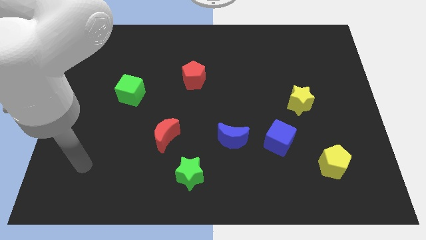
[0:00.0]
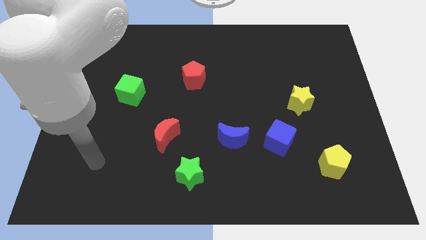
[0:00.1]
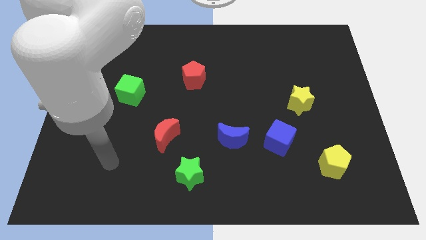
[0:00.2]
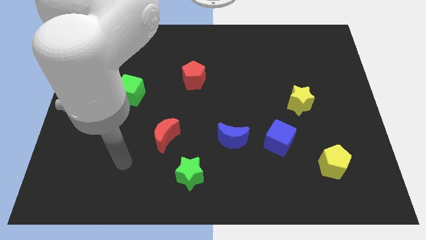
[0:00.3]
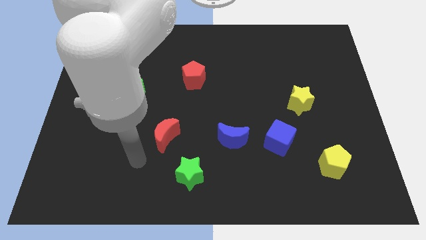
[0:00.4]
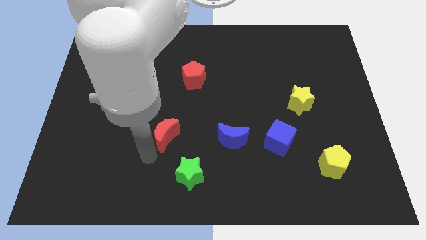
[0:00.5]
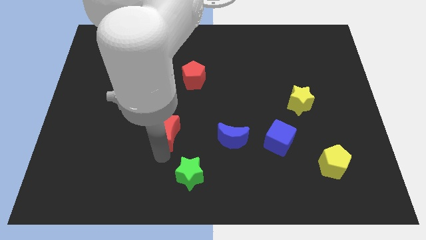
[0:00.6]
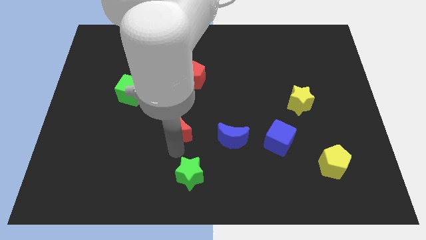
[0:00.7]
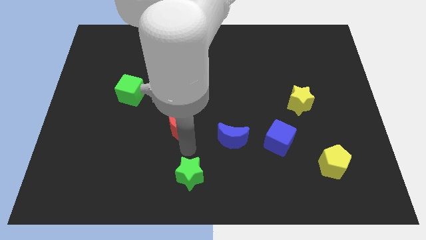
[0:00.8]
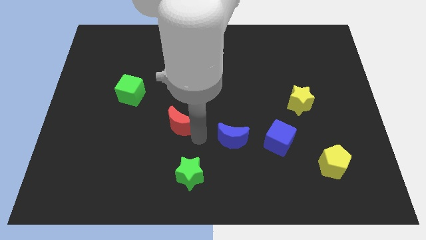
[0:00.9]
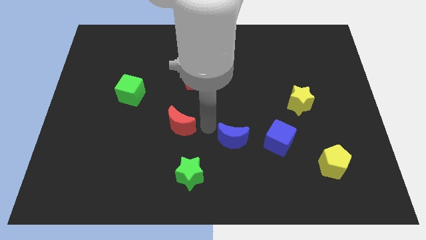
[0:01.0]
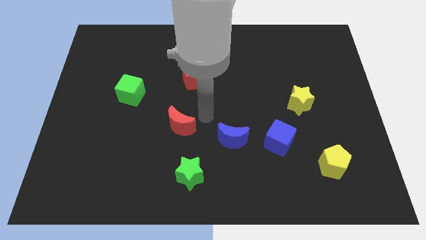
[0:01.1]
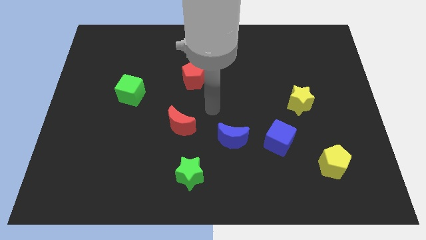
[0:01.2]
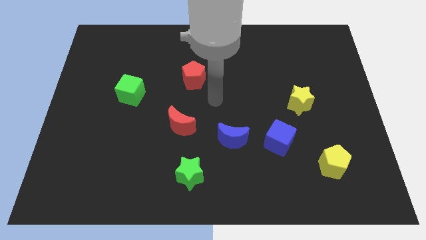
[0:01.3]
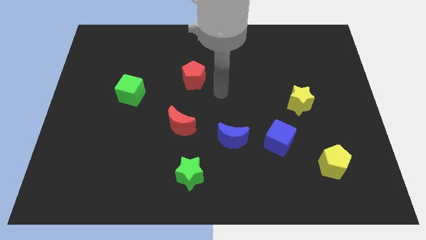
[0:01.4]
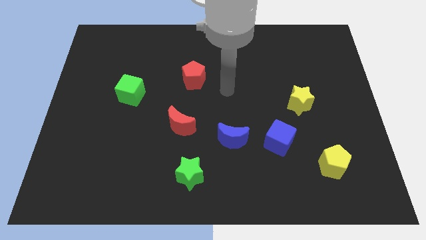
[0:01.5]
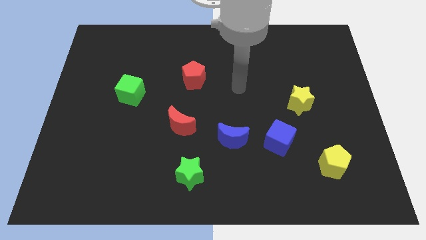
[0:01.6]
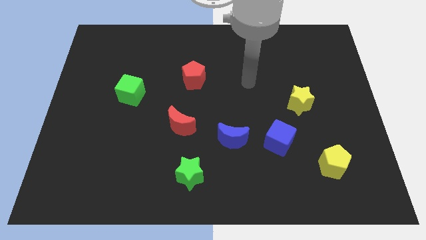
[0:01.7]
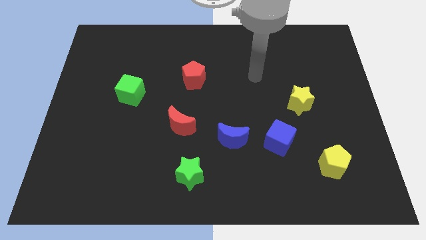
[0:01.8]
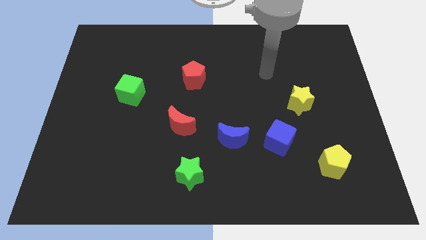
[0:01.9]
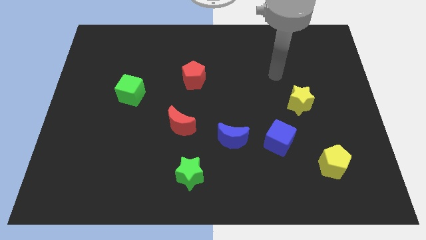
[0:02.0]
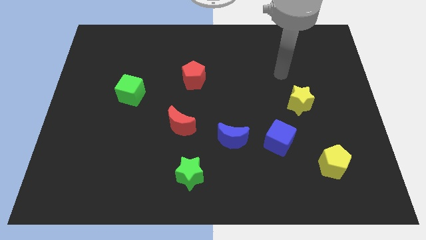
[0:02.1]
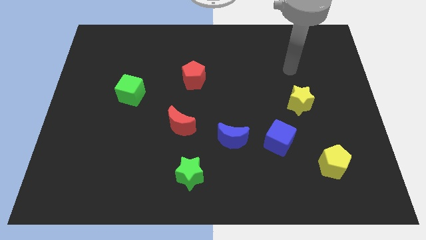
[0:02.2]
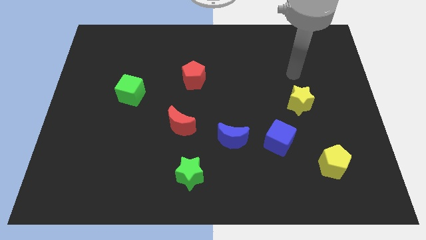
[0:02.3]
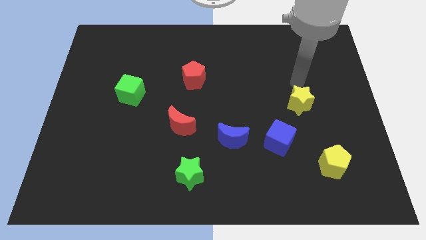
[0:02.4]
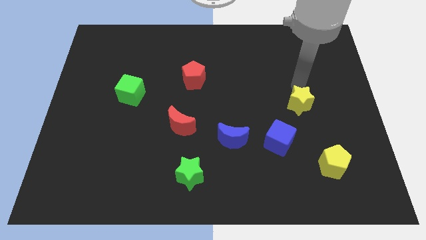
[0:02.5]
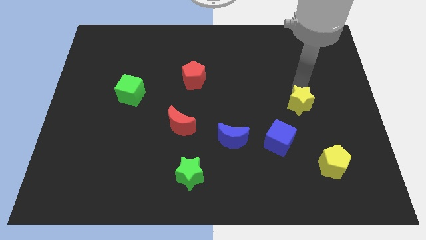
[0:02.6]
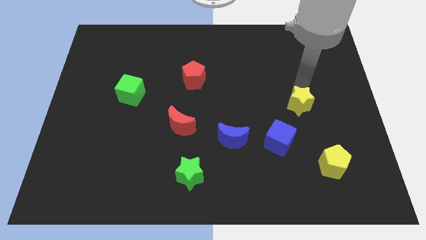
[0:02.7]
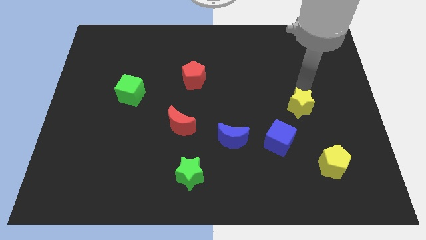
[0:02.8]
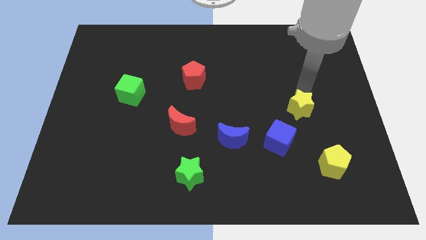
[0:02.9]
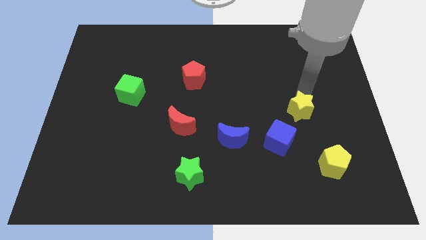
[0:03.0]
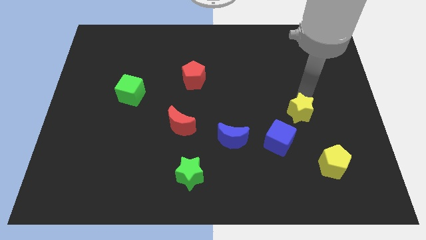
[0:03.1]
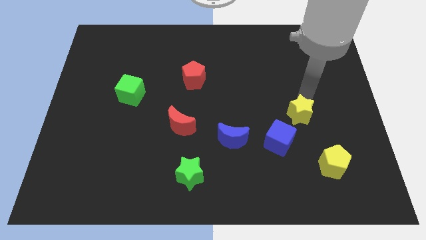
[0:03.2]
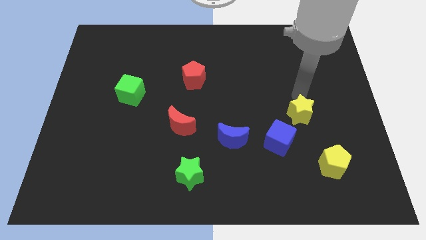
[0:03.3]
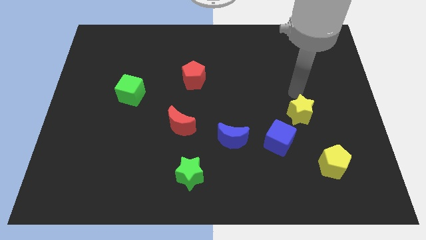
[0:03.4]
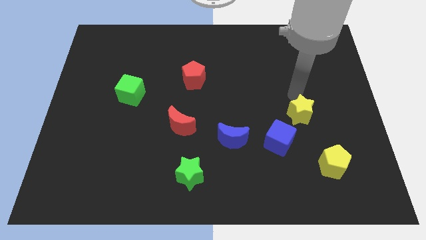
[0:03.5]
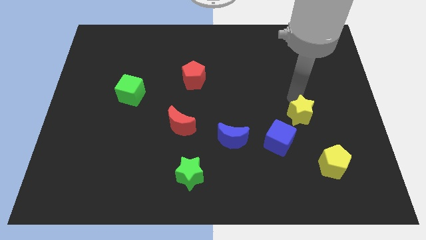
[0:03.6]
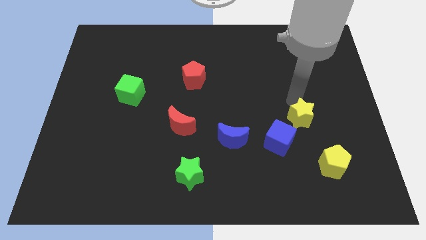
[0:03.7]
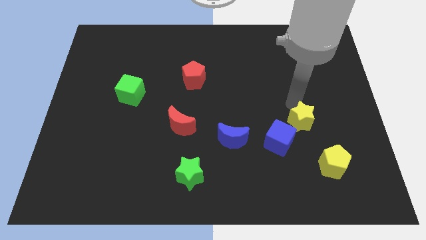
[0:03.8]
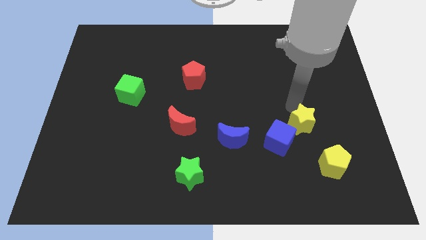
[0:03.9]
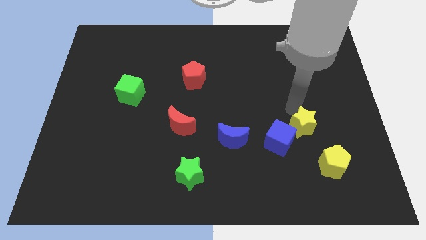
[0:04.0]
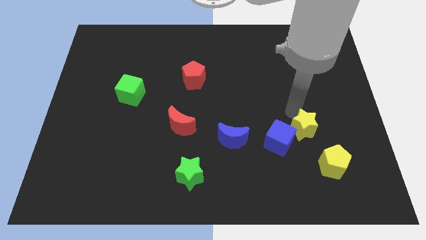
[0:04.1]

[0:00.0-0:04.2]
move the yellow star a little bit down

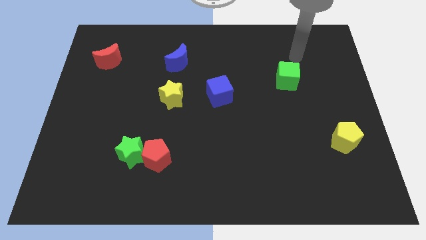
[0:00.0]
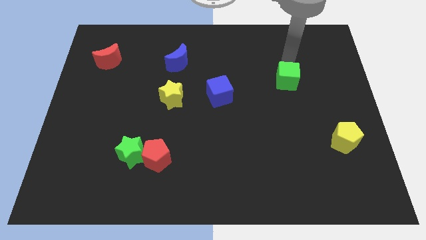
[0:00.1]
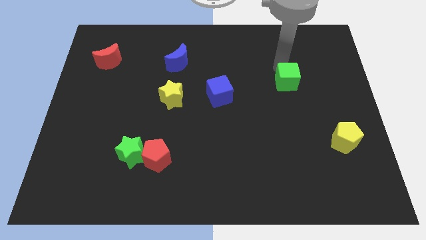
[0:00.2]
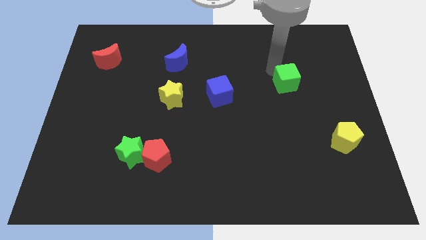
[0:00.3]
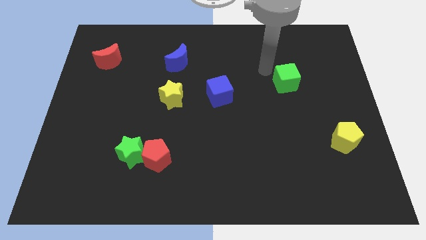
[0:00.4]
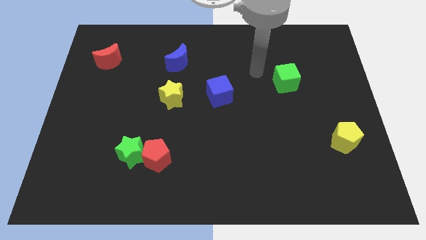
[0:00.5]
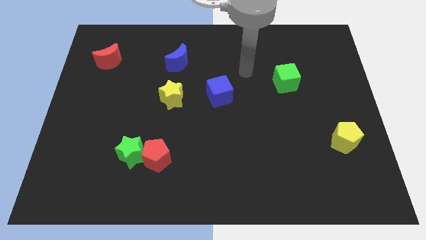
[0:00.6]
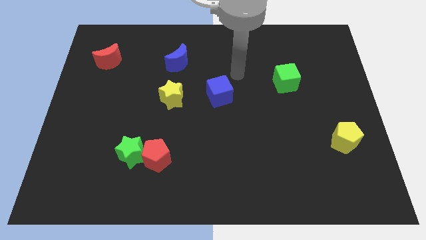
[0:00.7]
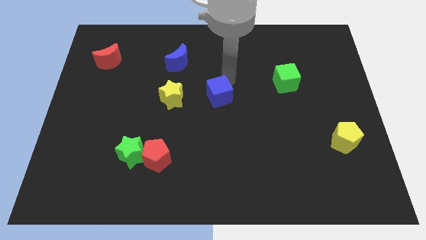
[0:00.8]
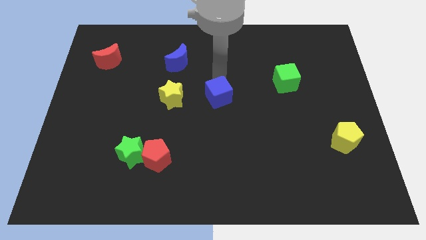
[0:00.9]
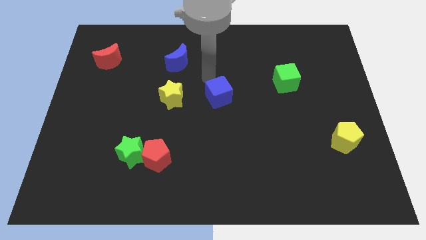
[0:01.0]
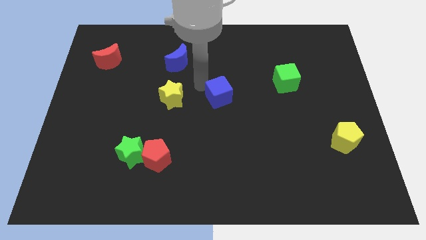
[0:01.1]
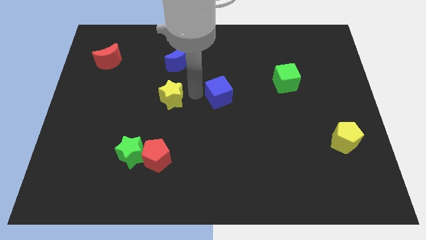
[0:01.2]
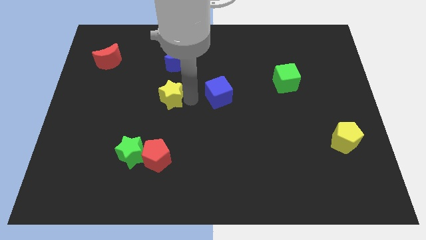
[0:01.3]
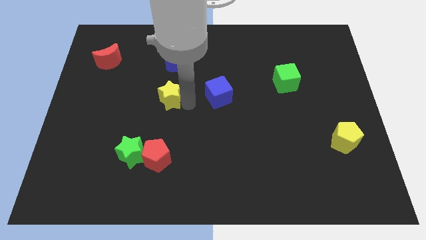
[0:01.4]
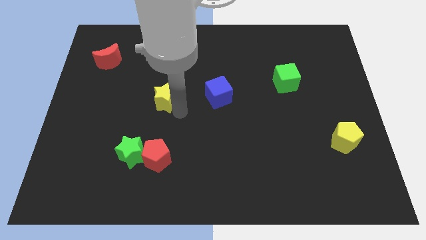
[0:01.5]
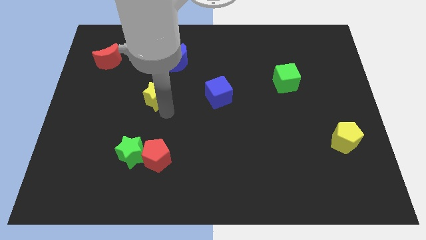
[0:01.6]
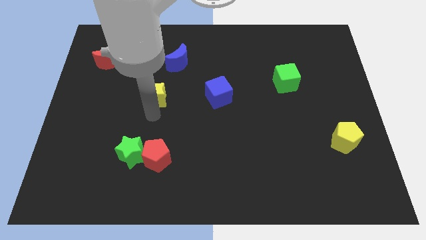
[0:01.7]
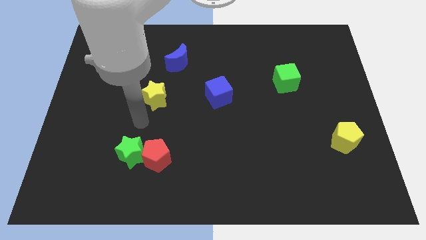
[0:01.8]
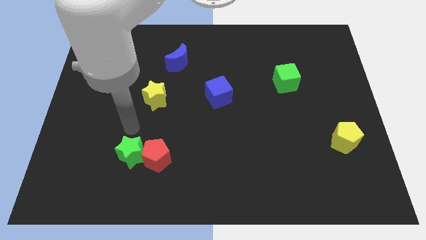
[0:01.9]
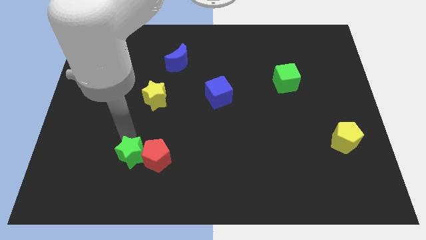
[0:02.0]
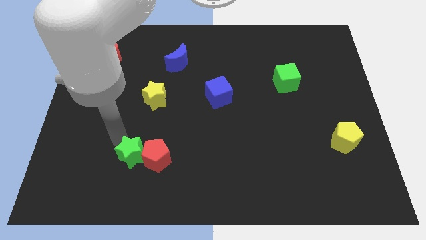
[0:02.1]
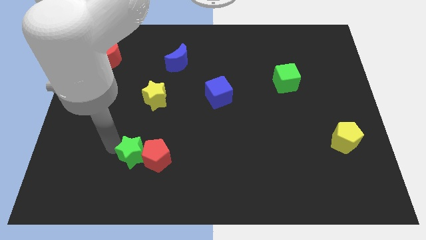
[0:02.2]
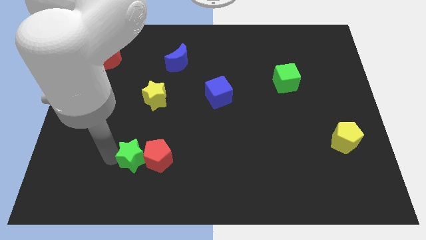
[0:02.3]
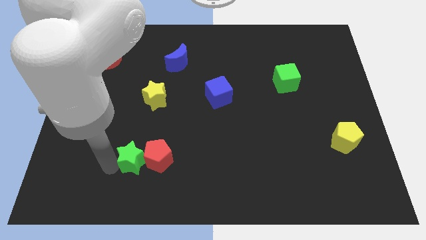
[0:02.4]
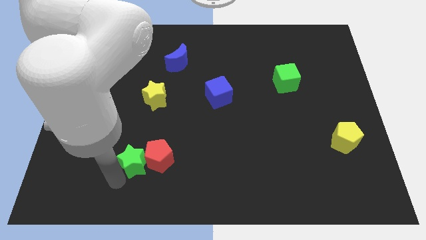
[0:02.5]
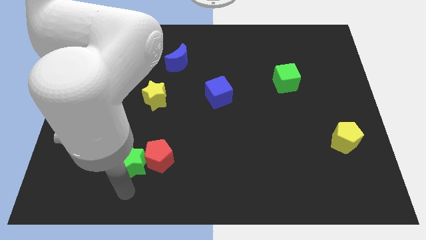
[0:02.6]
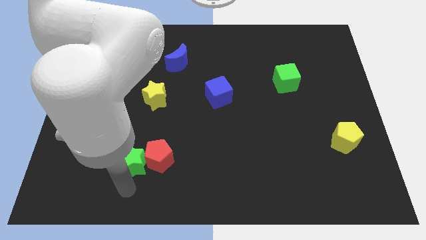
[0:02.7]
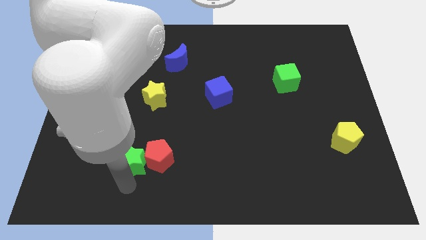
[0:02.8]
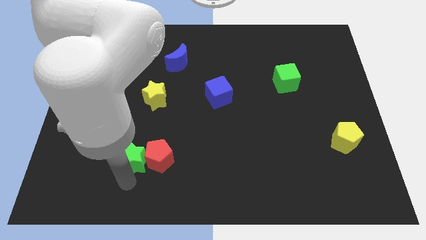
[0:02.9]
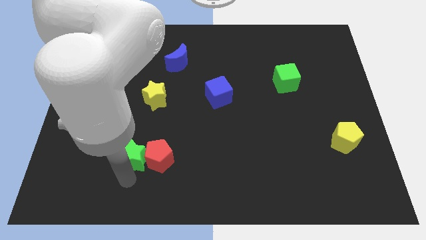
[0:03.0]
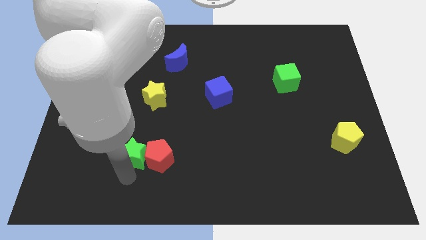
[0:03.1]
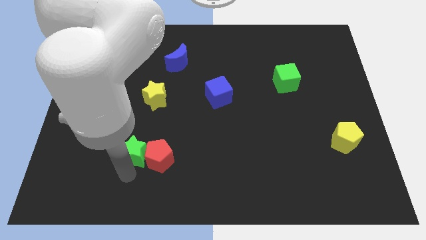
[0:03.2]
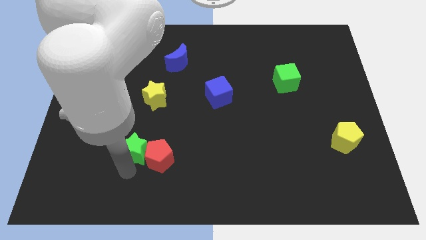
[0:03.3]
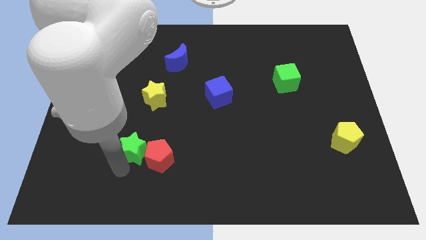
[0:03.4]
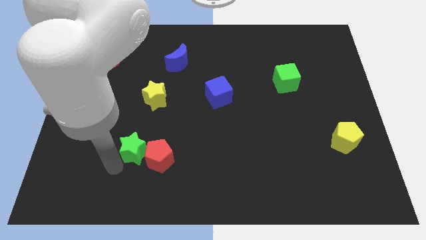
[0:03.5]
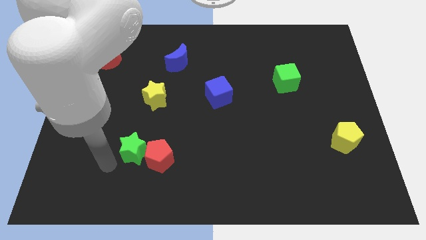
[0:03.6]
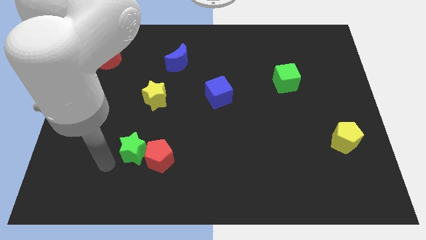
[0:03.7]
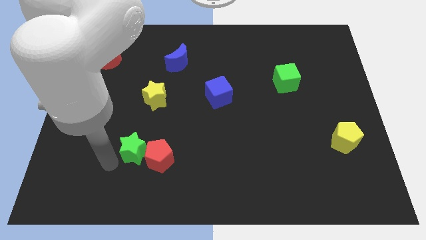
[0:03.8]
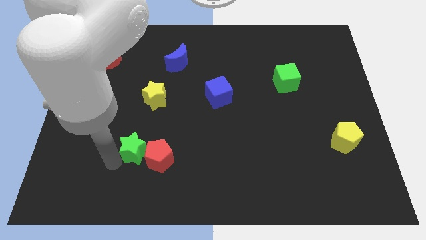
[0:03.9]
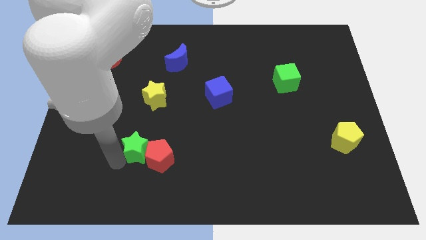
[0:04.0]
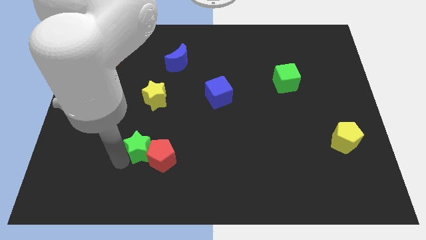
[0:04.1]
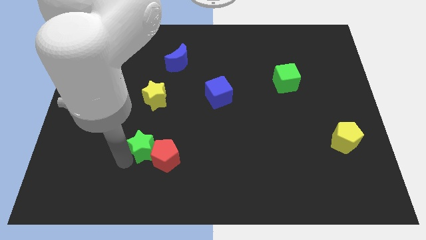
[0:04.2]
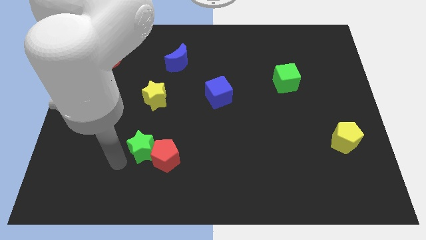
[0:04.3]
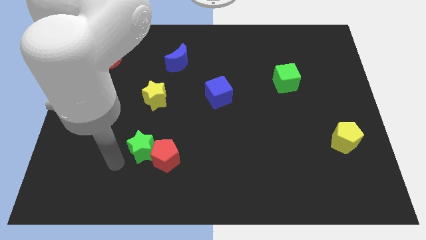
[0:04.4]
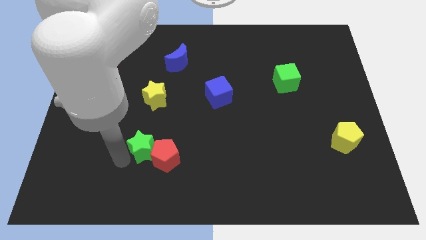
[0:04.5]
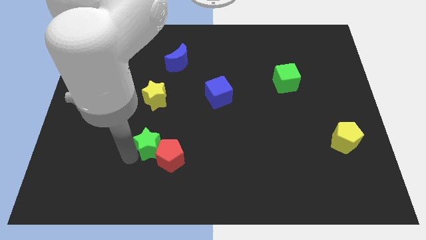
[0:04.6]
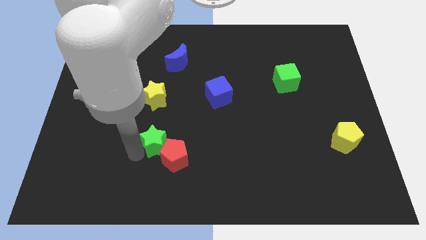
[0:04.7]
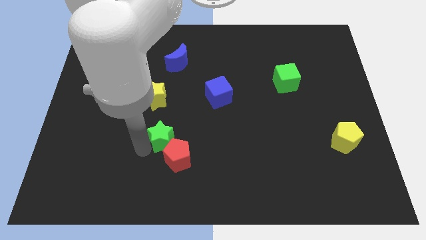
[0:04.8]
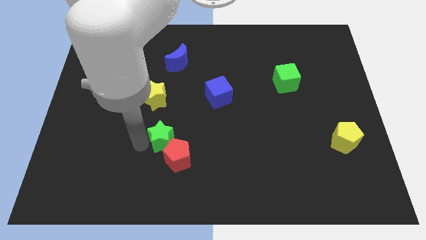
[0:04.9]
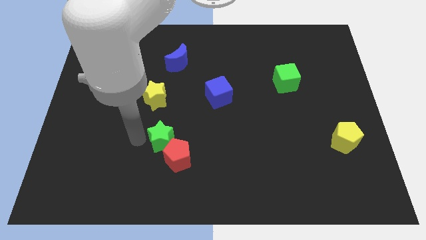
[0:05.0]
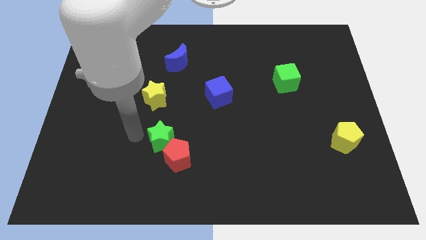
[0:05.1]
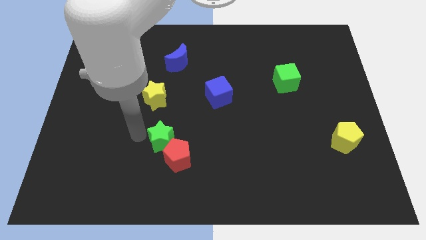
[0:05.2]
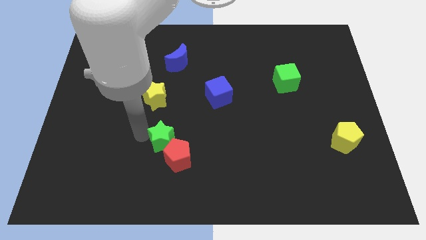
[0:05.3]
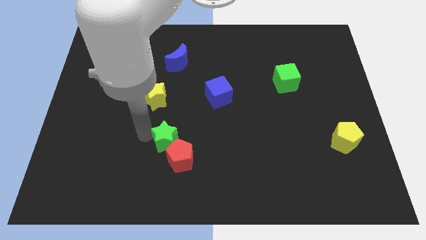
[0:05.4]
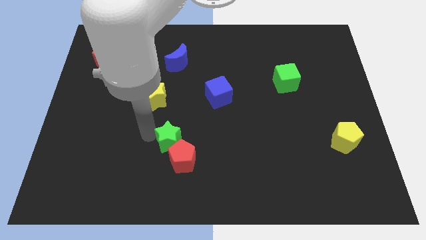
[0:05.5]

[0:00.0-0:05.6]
move the green star right a little
